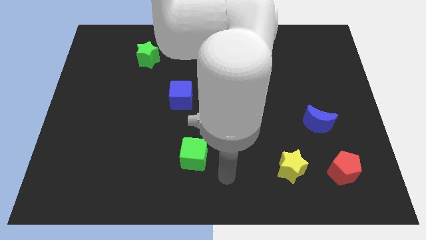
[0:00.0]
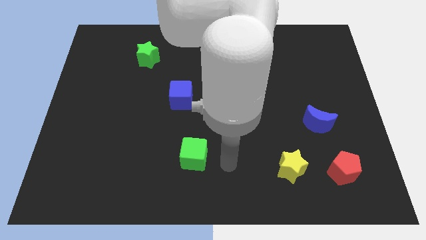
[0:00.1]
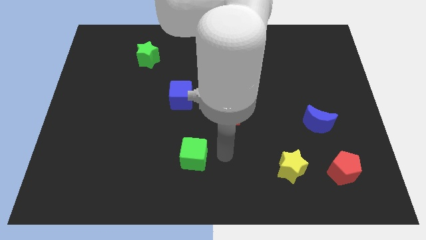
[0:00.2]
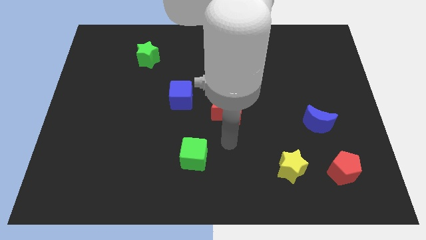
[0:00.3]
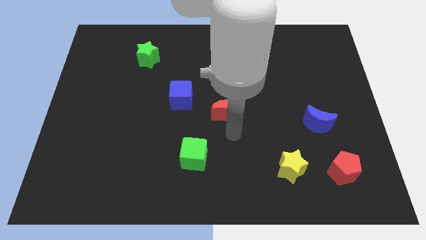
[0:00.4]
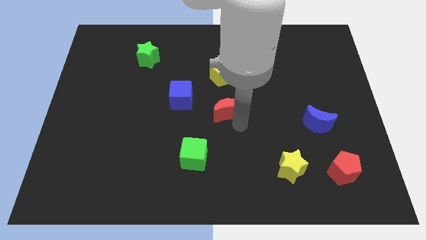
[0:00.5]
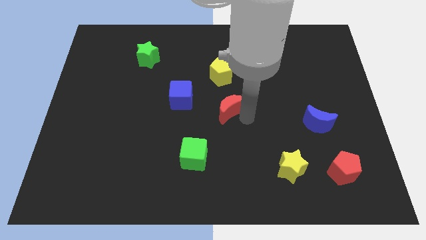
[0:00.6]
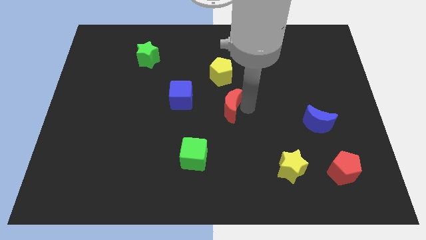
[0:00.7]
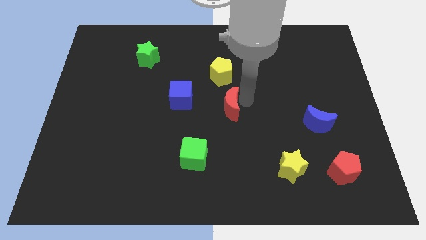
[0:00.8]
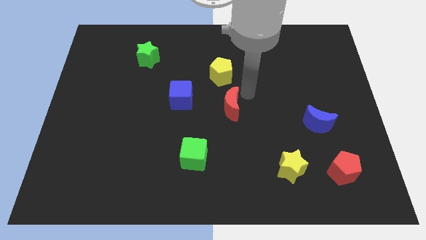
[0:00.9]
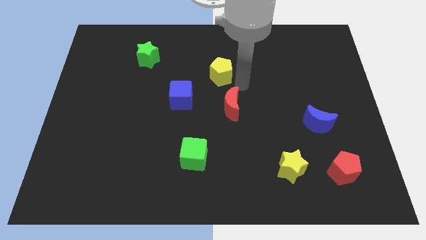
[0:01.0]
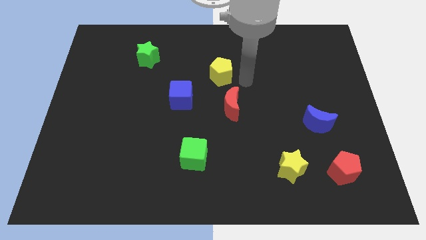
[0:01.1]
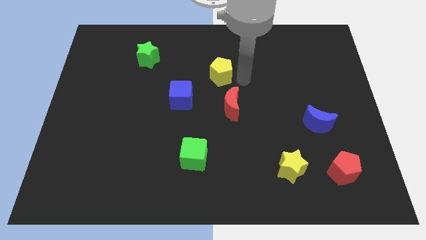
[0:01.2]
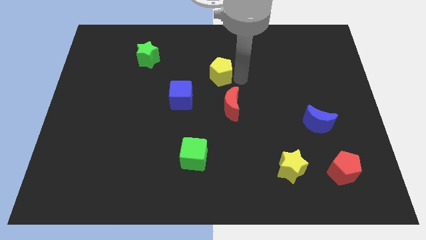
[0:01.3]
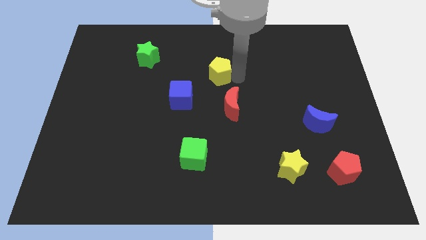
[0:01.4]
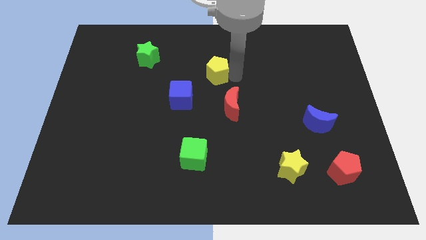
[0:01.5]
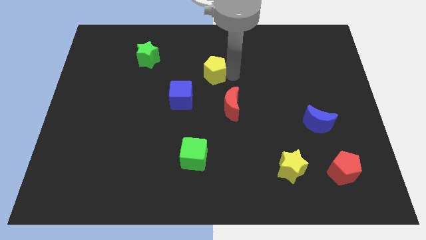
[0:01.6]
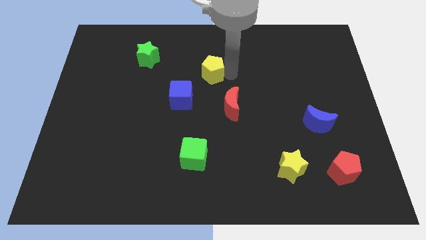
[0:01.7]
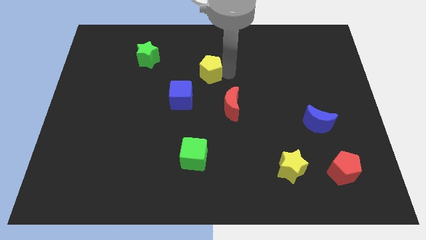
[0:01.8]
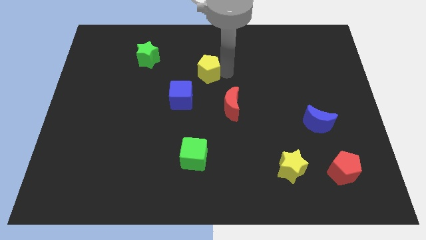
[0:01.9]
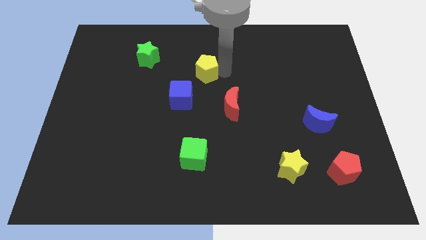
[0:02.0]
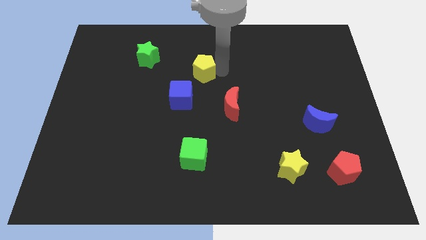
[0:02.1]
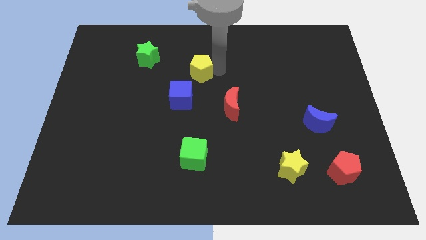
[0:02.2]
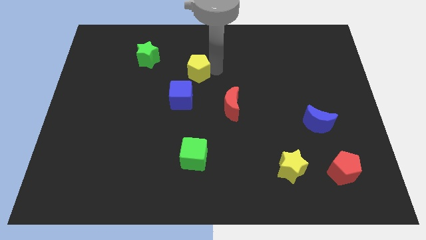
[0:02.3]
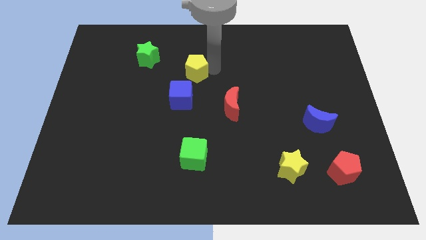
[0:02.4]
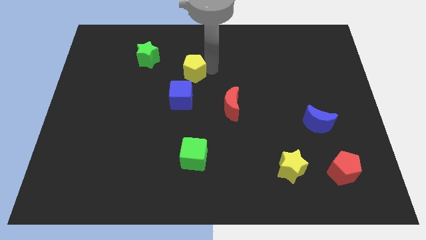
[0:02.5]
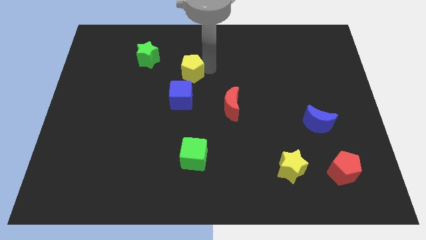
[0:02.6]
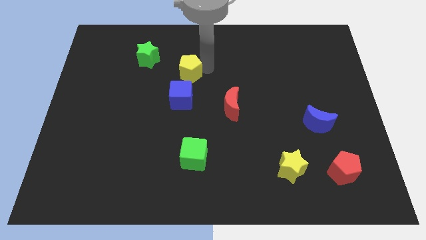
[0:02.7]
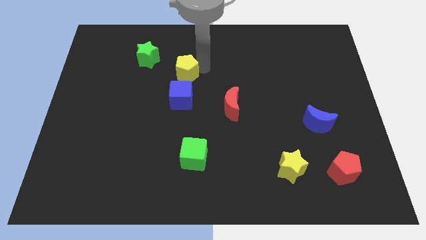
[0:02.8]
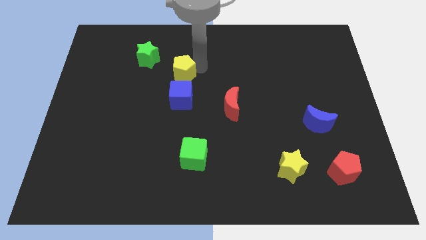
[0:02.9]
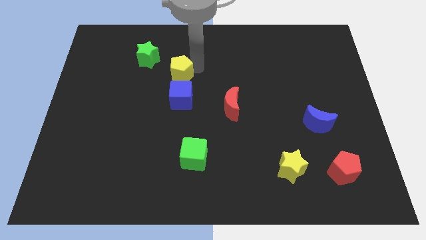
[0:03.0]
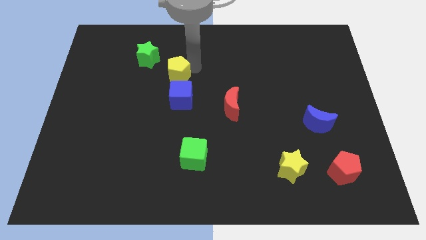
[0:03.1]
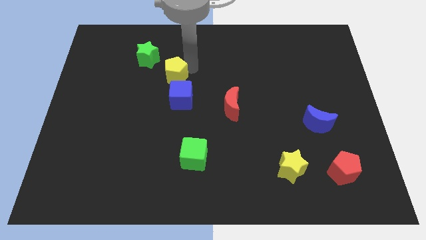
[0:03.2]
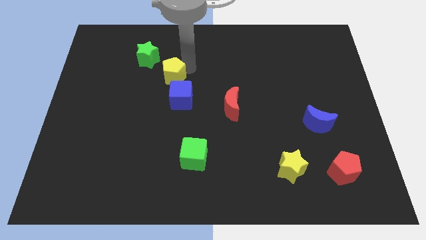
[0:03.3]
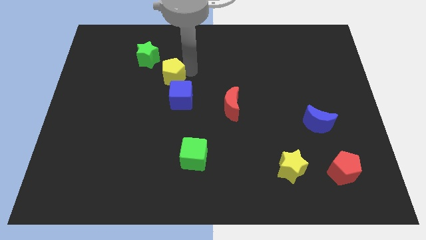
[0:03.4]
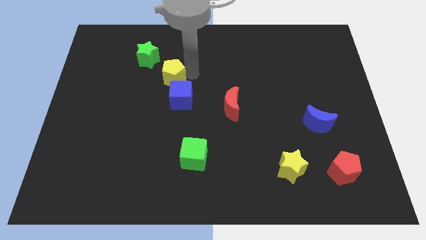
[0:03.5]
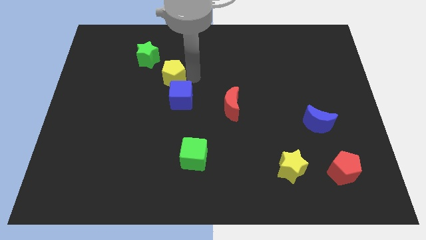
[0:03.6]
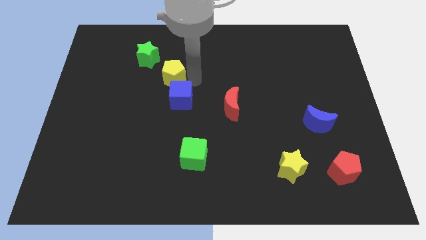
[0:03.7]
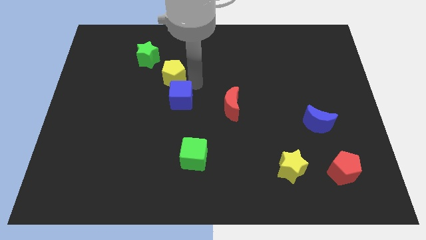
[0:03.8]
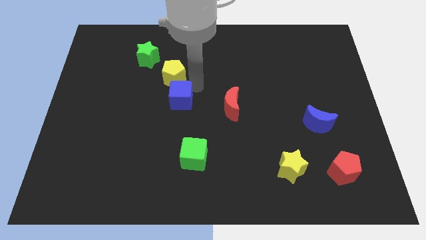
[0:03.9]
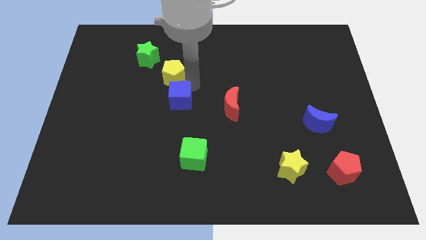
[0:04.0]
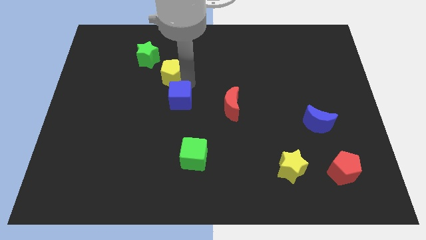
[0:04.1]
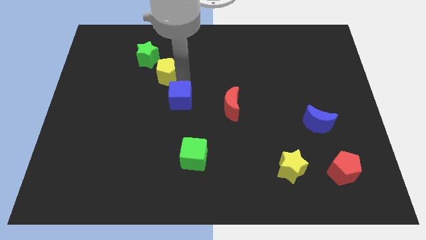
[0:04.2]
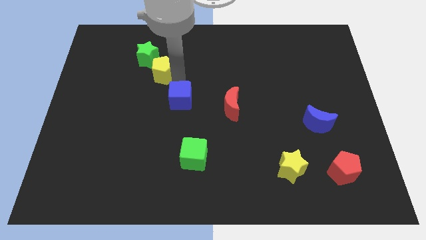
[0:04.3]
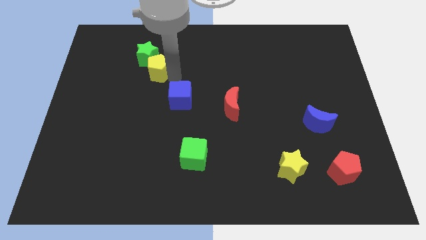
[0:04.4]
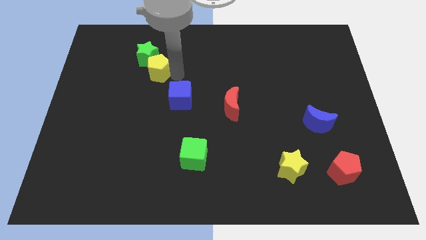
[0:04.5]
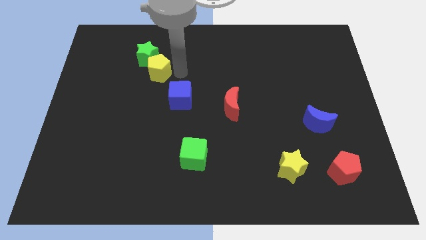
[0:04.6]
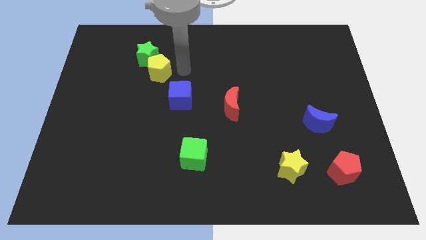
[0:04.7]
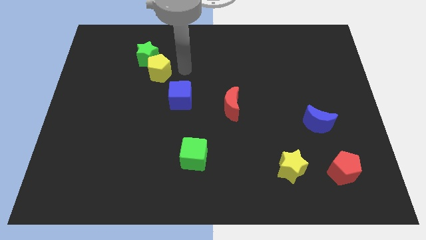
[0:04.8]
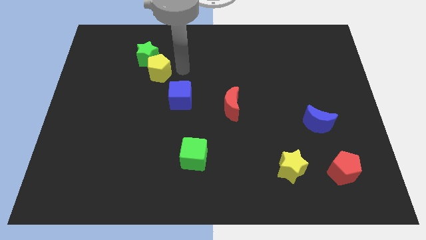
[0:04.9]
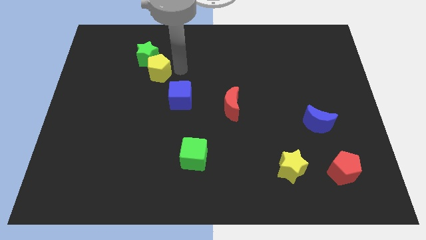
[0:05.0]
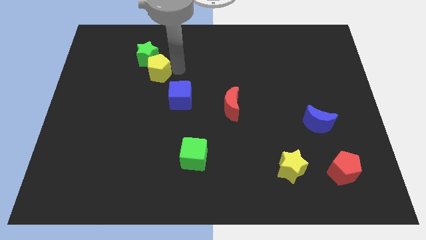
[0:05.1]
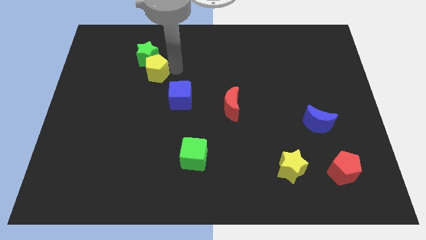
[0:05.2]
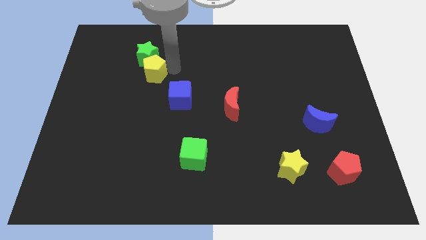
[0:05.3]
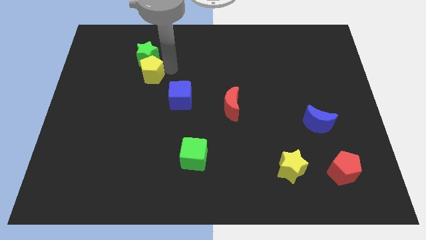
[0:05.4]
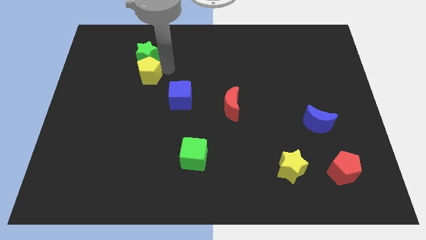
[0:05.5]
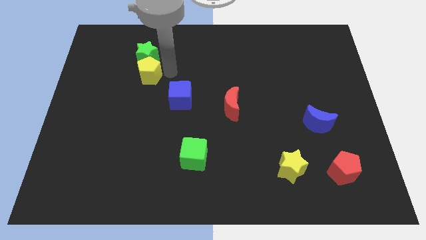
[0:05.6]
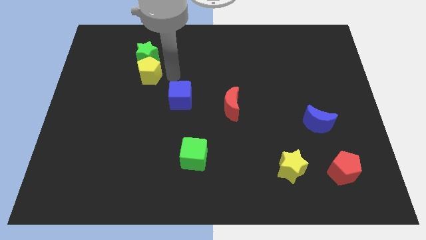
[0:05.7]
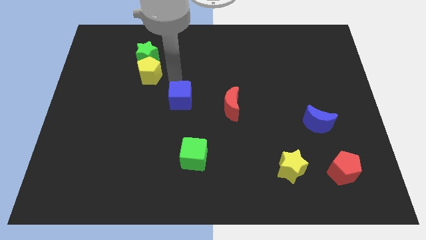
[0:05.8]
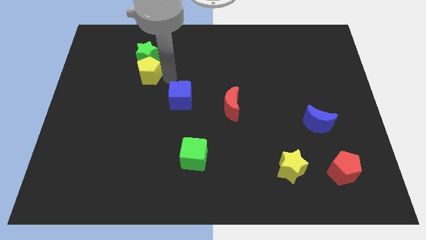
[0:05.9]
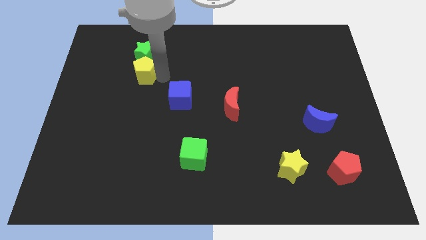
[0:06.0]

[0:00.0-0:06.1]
push the yellow pentagon to the bottom left side of the green star

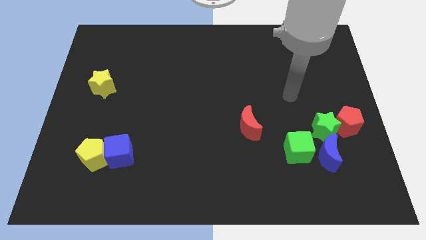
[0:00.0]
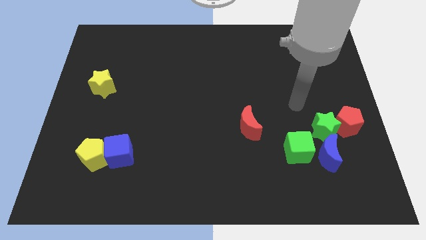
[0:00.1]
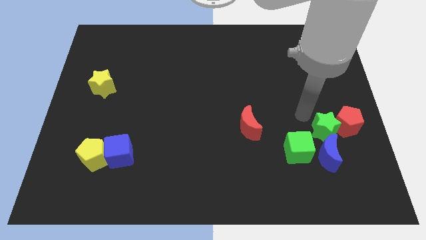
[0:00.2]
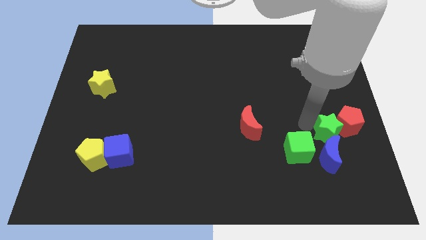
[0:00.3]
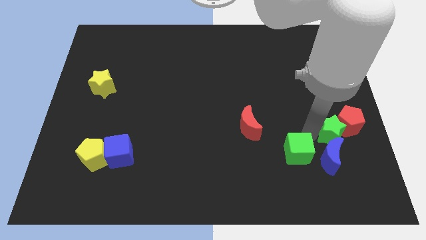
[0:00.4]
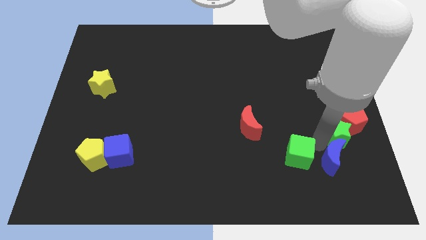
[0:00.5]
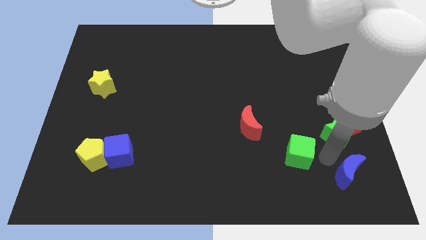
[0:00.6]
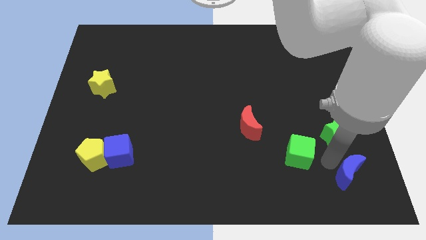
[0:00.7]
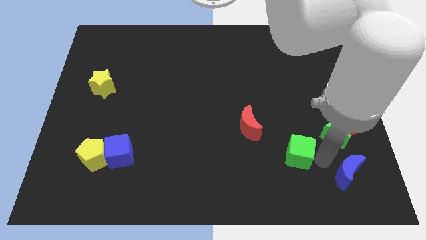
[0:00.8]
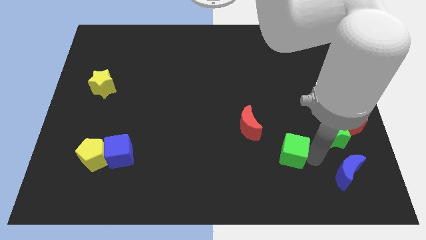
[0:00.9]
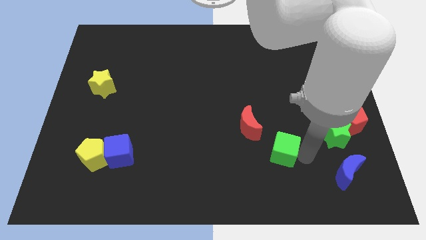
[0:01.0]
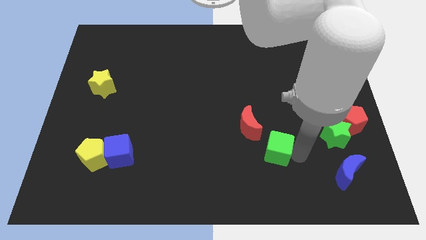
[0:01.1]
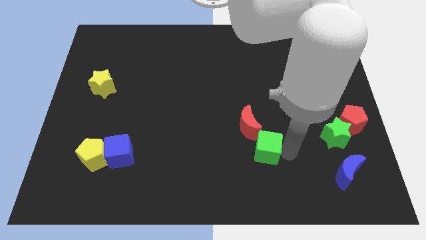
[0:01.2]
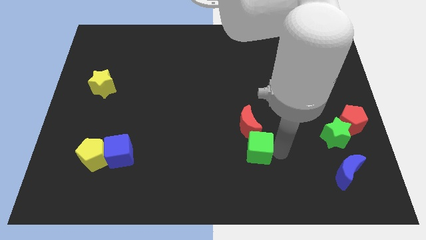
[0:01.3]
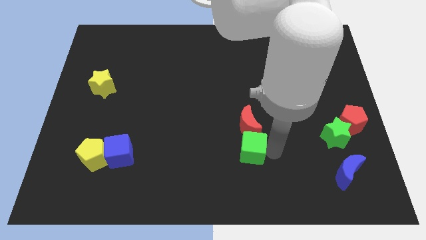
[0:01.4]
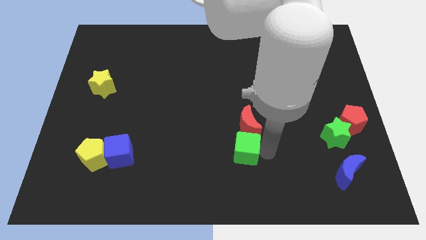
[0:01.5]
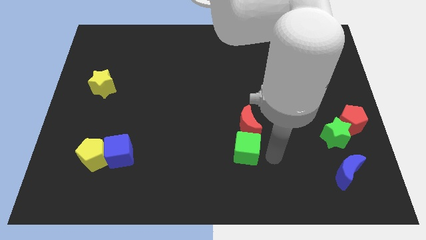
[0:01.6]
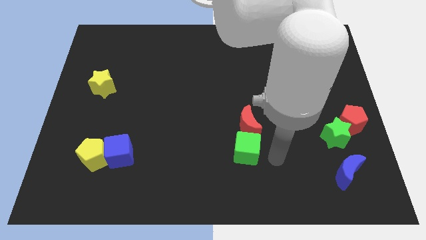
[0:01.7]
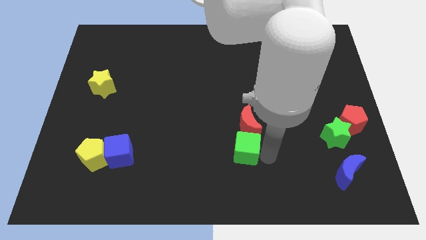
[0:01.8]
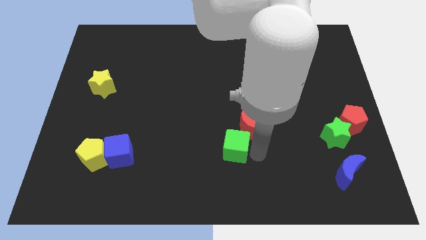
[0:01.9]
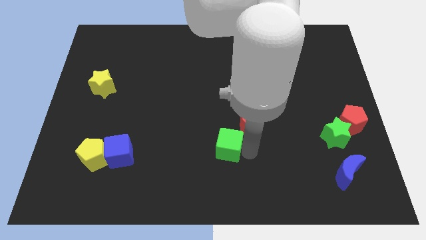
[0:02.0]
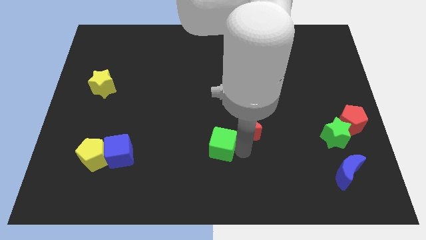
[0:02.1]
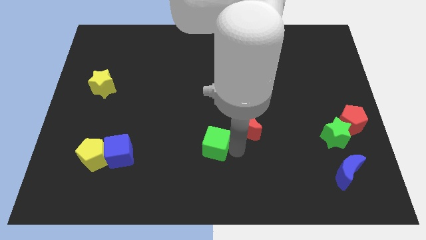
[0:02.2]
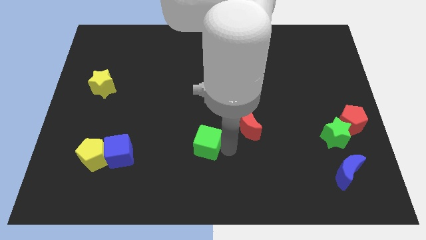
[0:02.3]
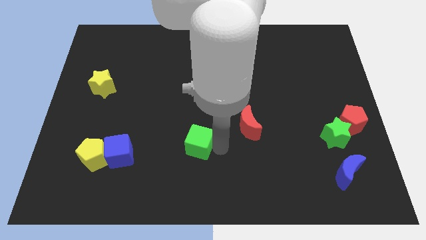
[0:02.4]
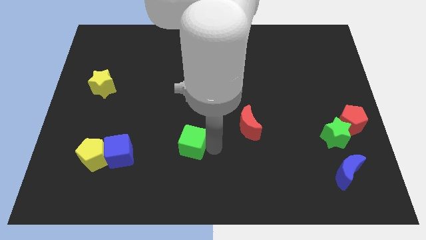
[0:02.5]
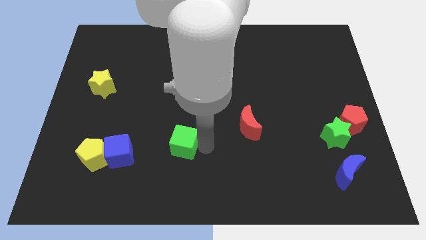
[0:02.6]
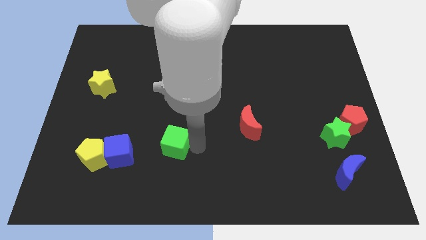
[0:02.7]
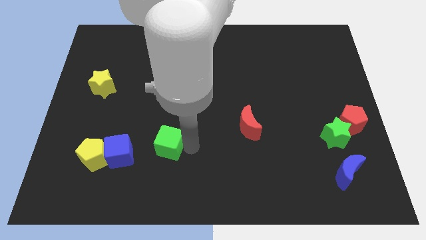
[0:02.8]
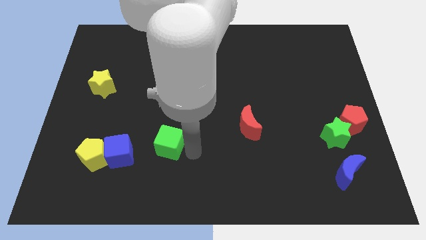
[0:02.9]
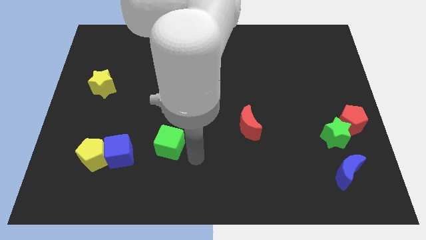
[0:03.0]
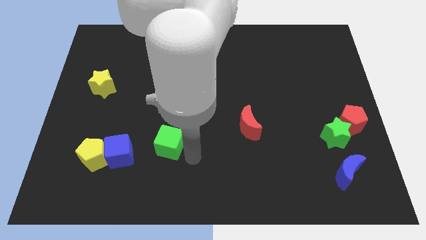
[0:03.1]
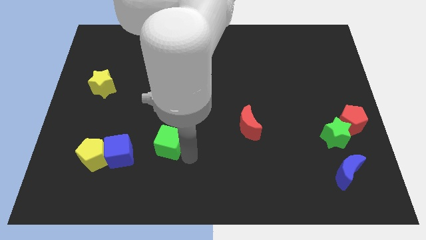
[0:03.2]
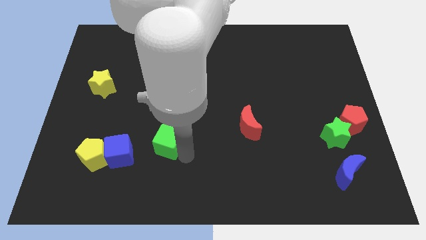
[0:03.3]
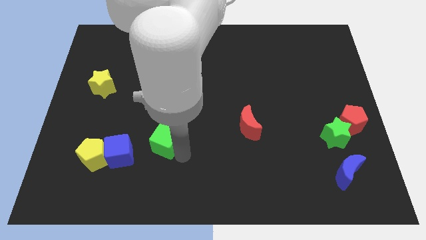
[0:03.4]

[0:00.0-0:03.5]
move the green cube to the top right of the blue cube
